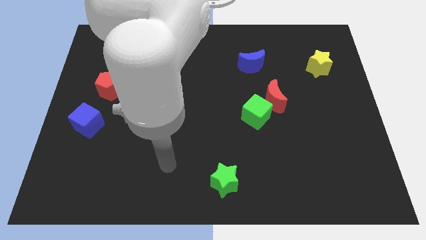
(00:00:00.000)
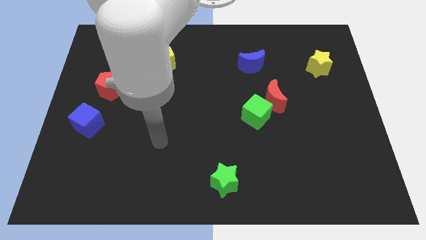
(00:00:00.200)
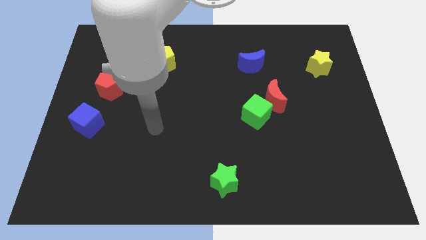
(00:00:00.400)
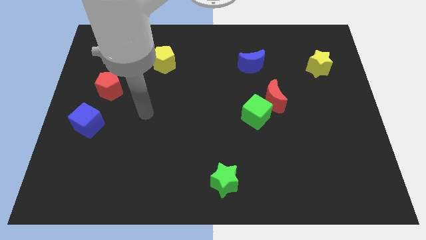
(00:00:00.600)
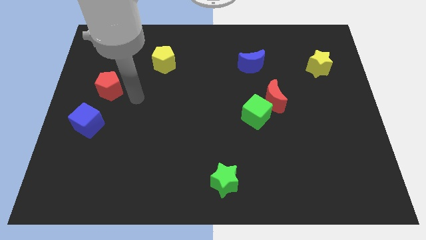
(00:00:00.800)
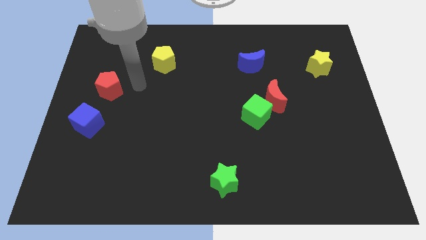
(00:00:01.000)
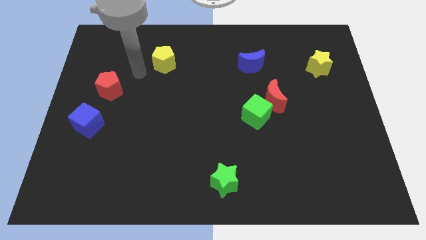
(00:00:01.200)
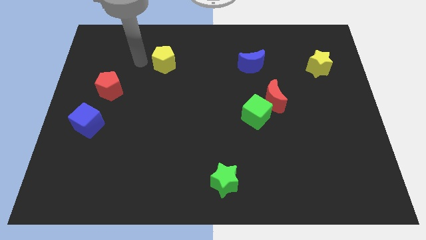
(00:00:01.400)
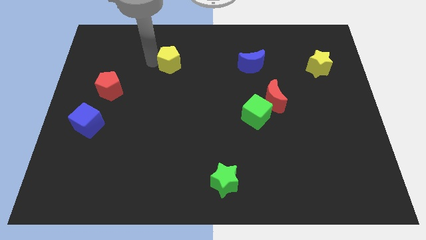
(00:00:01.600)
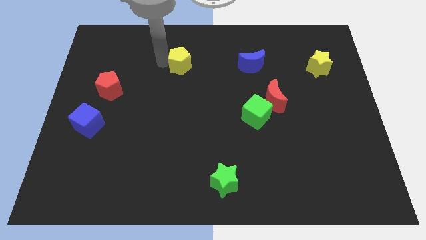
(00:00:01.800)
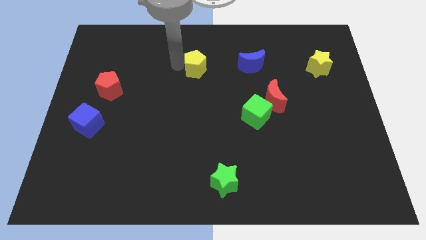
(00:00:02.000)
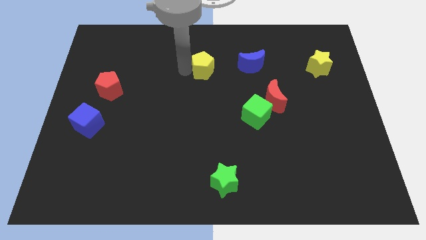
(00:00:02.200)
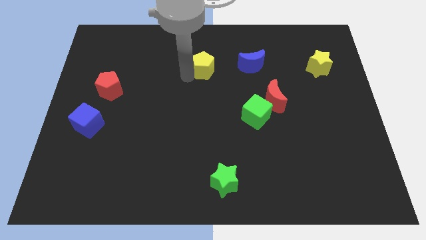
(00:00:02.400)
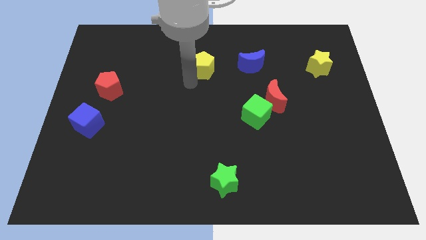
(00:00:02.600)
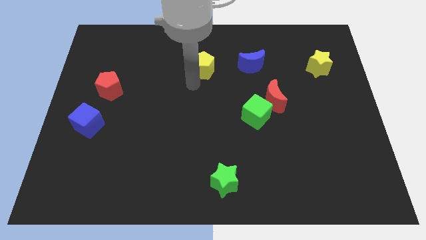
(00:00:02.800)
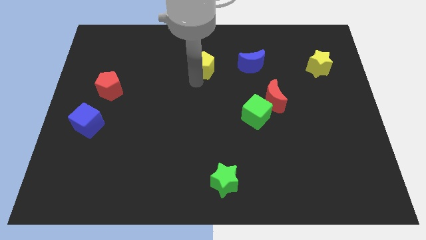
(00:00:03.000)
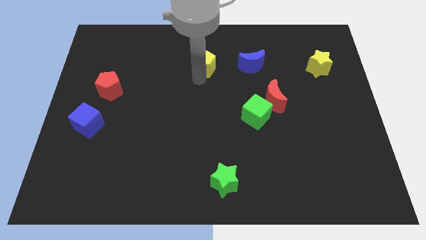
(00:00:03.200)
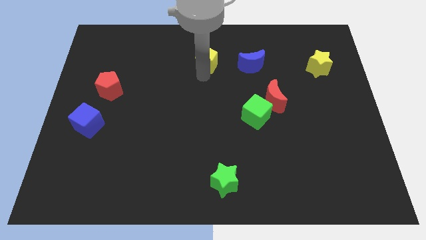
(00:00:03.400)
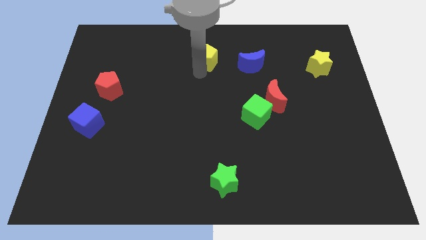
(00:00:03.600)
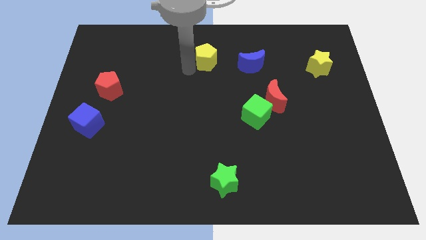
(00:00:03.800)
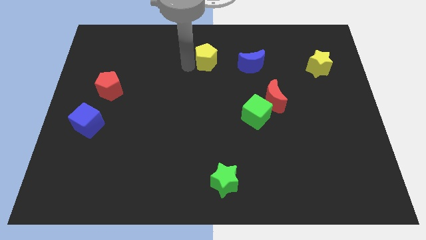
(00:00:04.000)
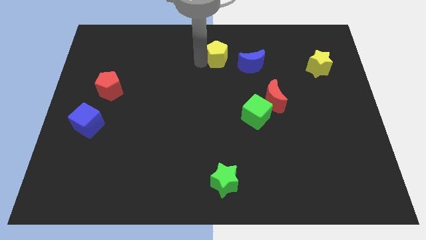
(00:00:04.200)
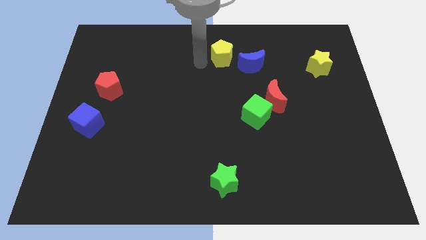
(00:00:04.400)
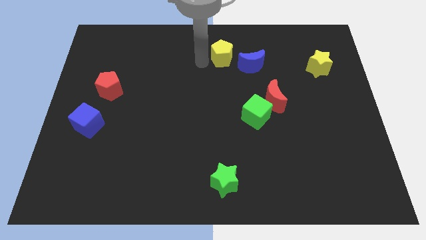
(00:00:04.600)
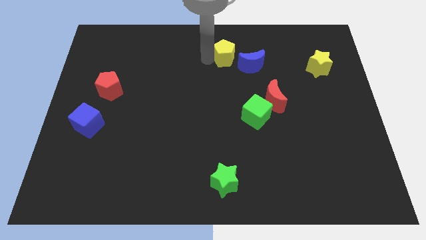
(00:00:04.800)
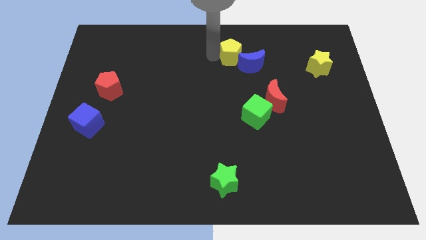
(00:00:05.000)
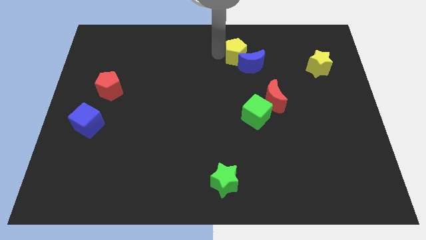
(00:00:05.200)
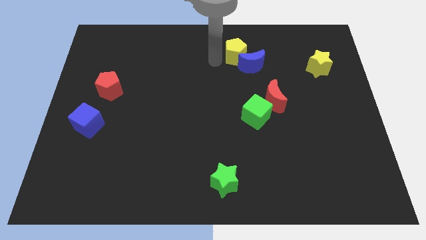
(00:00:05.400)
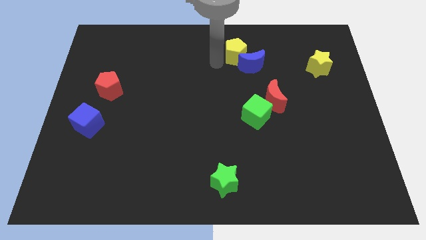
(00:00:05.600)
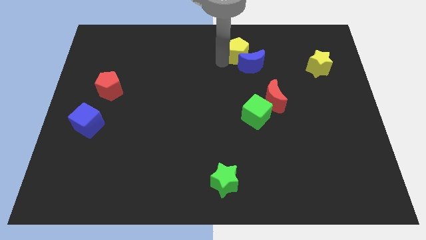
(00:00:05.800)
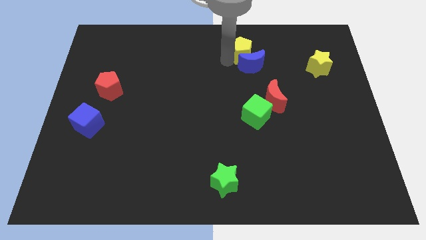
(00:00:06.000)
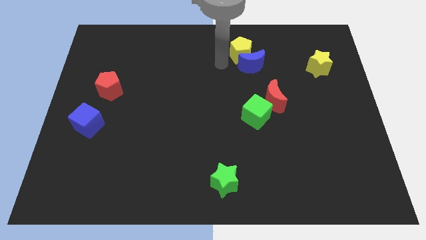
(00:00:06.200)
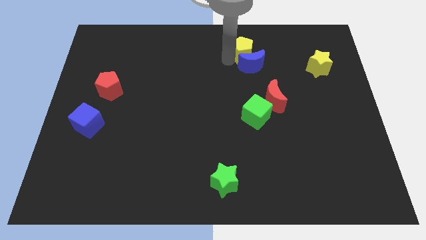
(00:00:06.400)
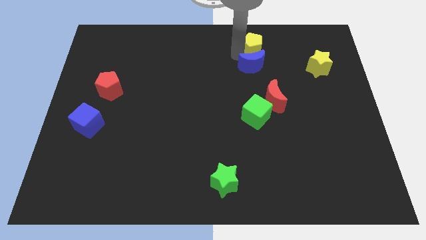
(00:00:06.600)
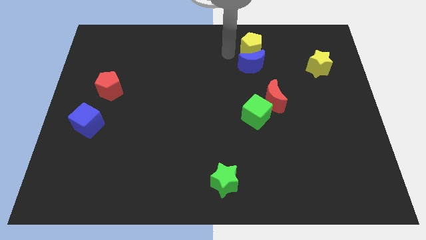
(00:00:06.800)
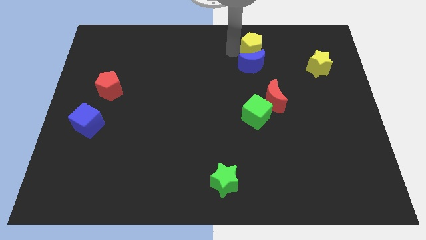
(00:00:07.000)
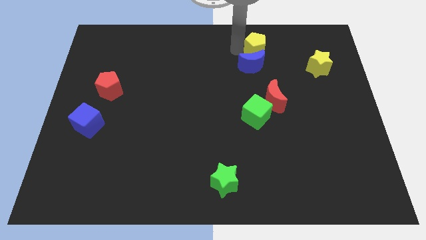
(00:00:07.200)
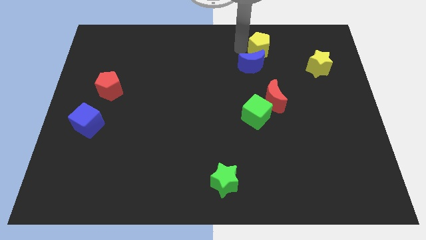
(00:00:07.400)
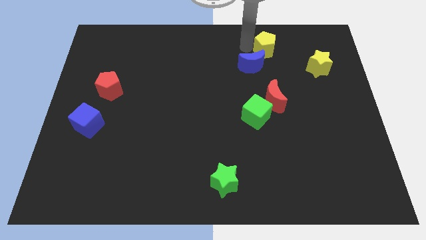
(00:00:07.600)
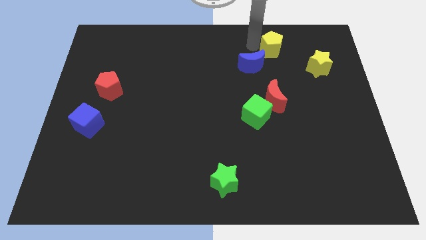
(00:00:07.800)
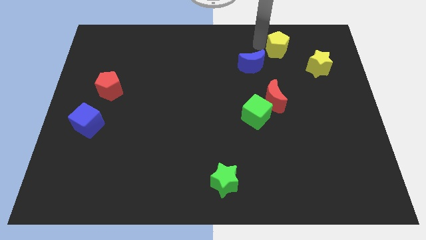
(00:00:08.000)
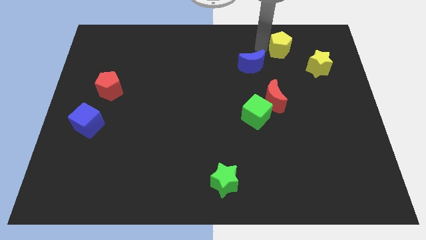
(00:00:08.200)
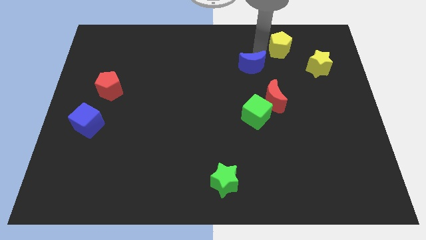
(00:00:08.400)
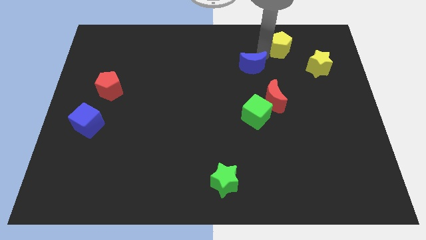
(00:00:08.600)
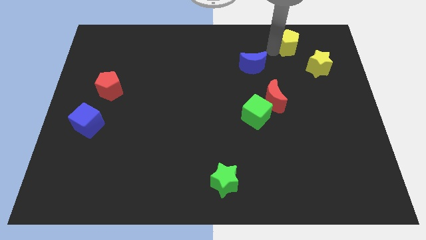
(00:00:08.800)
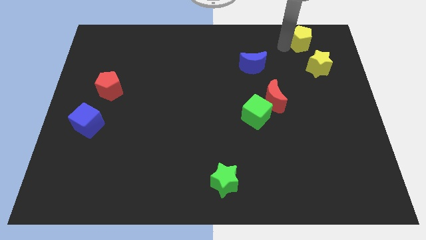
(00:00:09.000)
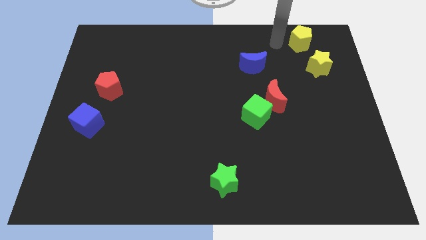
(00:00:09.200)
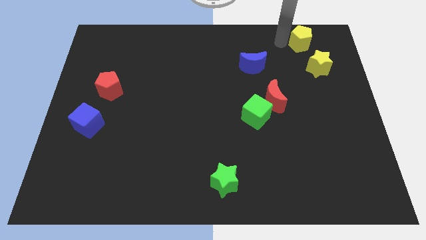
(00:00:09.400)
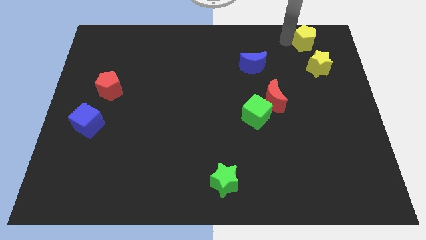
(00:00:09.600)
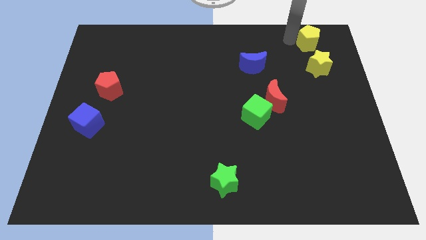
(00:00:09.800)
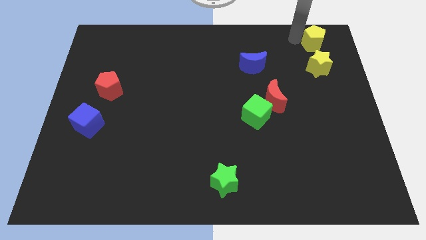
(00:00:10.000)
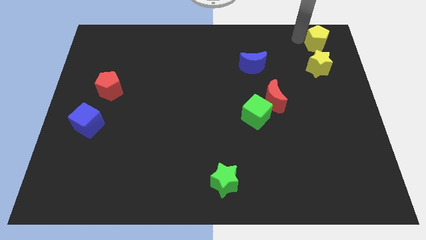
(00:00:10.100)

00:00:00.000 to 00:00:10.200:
put the yellow pentagon to the top right

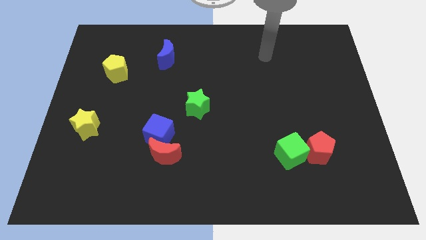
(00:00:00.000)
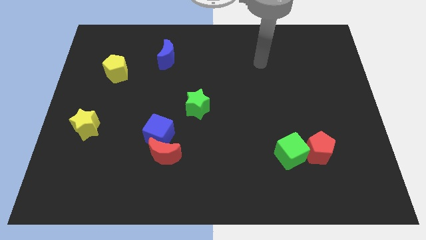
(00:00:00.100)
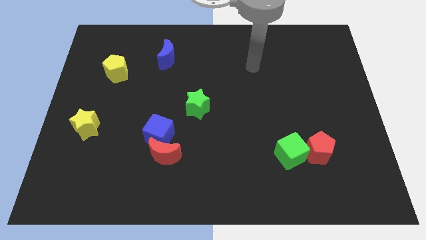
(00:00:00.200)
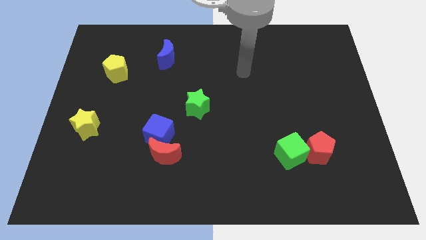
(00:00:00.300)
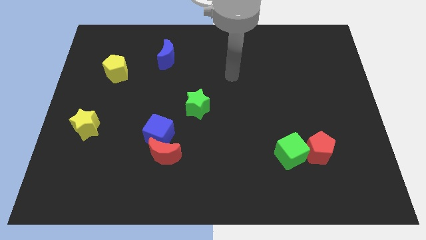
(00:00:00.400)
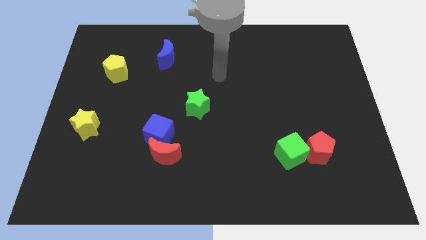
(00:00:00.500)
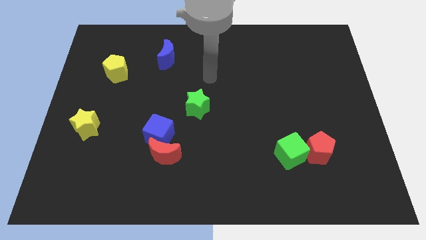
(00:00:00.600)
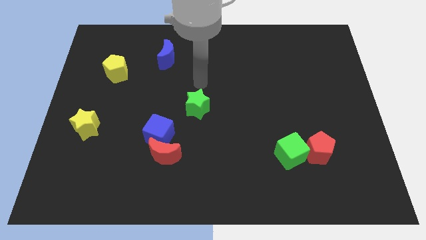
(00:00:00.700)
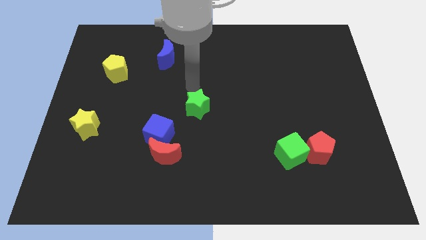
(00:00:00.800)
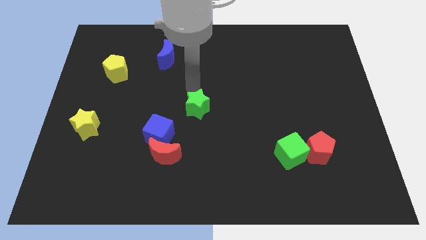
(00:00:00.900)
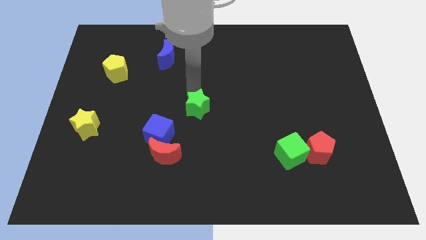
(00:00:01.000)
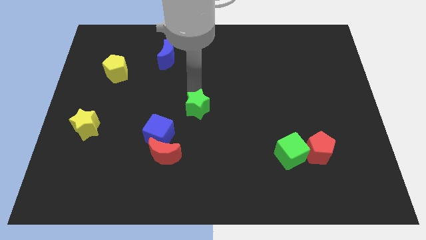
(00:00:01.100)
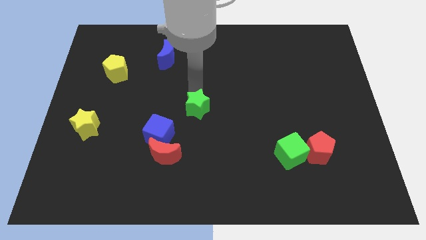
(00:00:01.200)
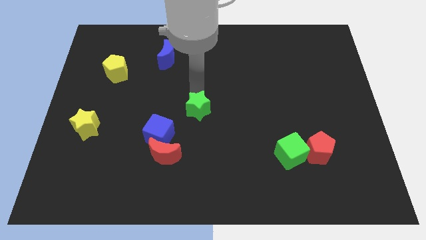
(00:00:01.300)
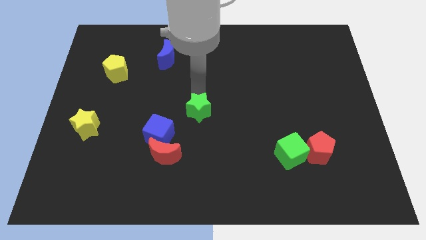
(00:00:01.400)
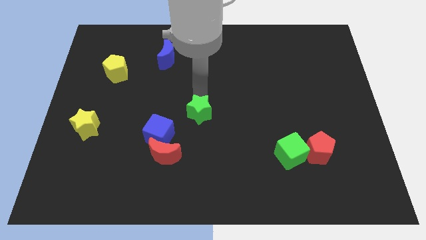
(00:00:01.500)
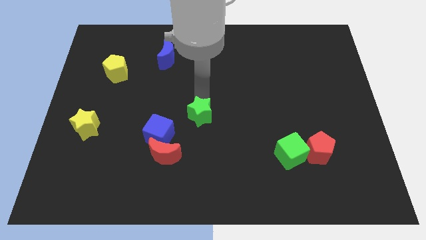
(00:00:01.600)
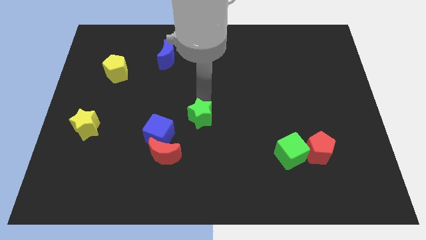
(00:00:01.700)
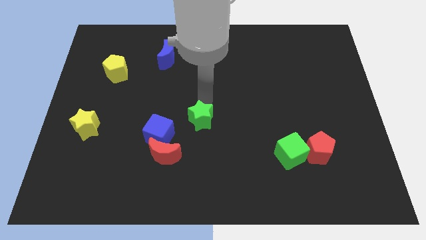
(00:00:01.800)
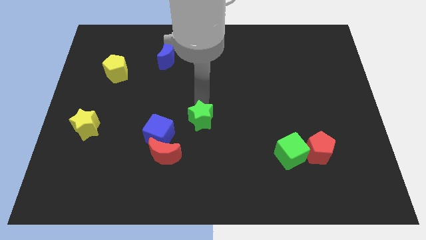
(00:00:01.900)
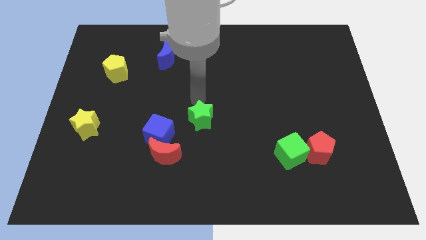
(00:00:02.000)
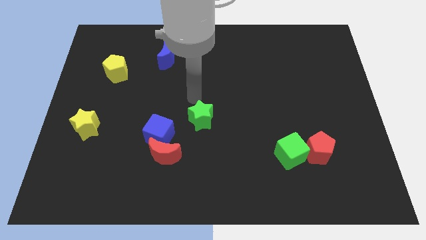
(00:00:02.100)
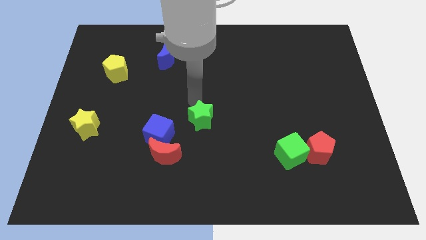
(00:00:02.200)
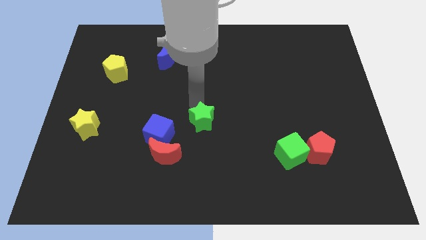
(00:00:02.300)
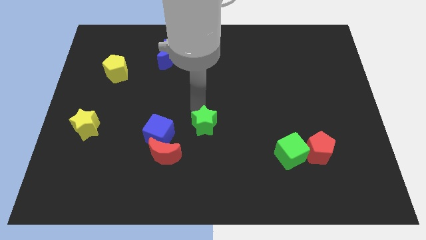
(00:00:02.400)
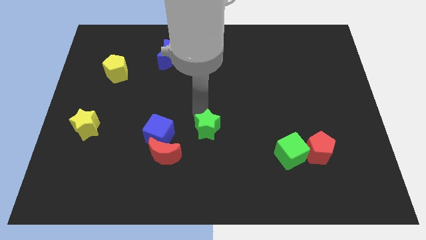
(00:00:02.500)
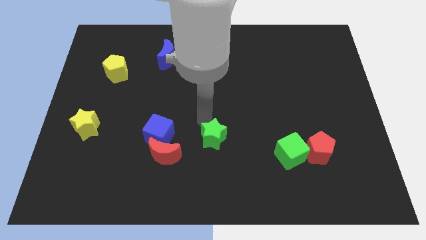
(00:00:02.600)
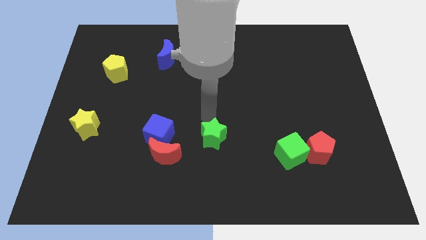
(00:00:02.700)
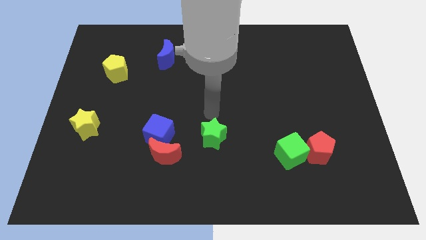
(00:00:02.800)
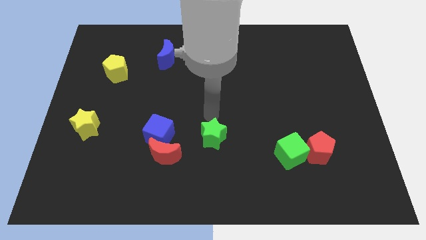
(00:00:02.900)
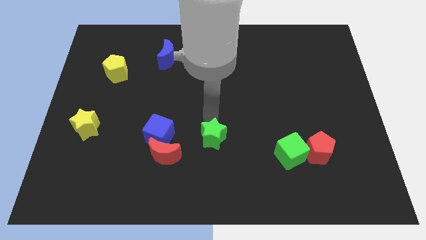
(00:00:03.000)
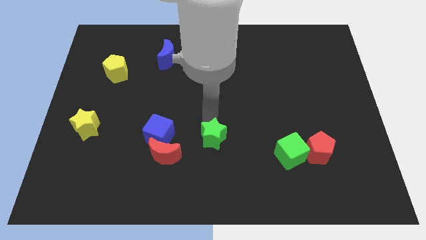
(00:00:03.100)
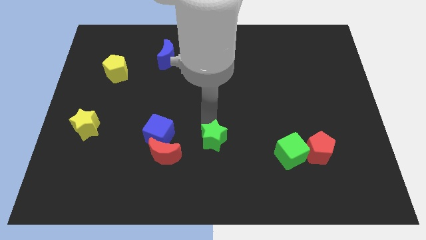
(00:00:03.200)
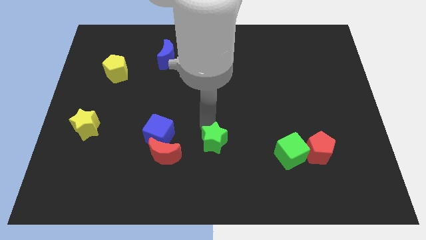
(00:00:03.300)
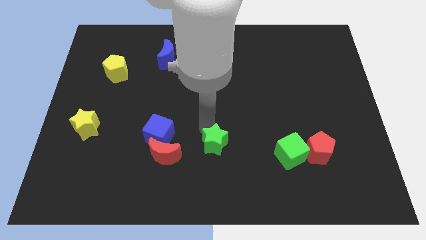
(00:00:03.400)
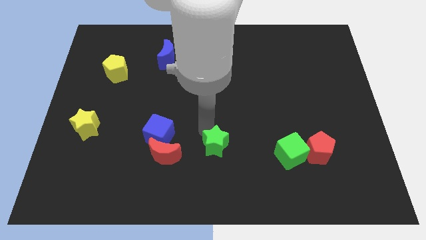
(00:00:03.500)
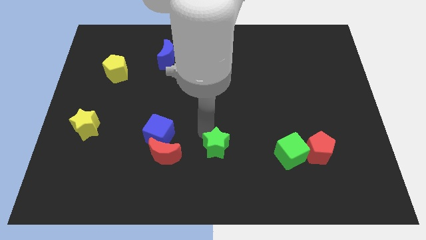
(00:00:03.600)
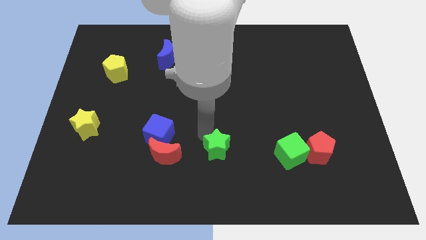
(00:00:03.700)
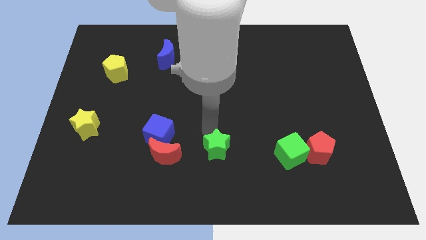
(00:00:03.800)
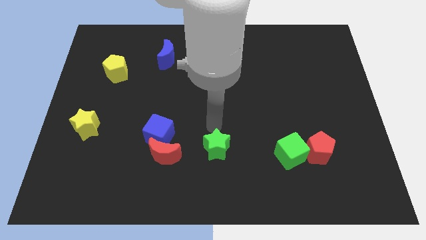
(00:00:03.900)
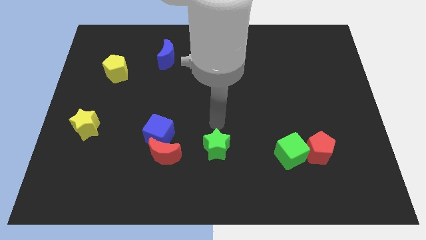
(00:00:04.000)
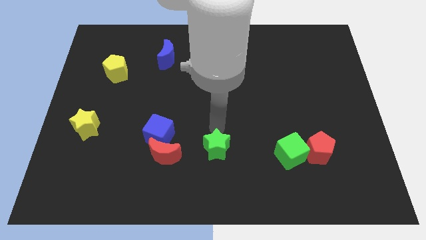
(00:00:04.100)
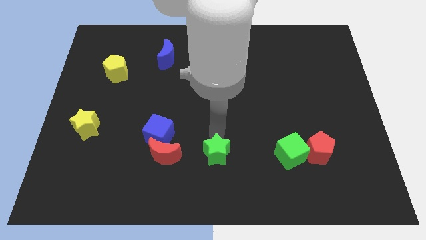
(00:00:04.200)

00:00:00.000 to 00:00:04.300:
slide the green star to the bottom
